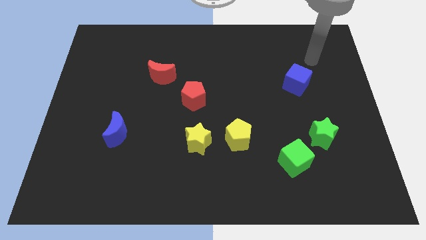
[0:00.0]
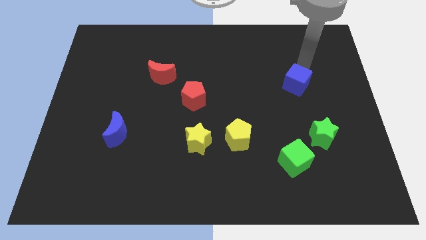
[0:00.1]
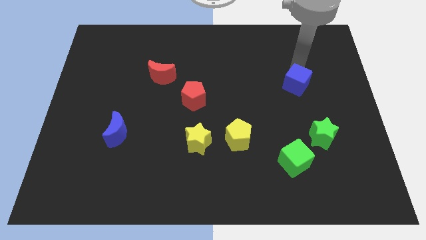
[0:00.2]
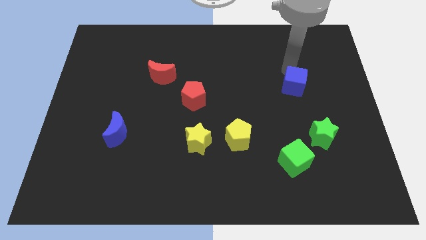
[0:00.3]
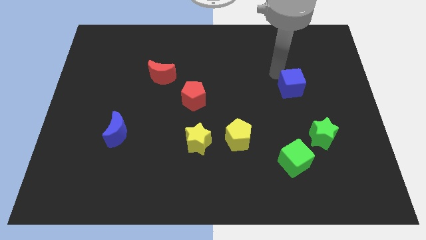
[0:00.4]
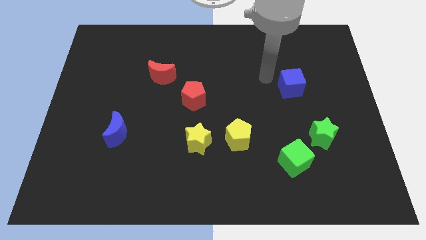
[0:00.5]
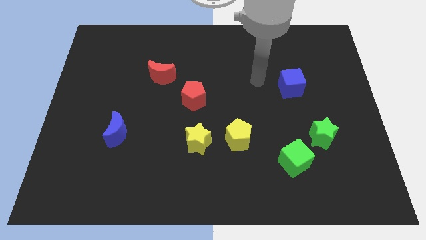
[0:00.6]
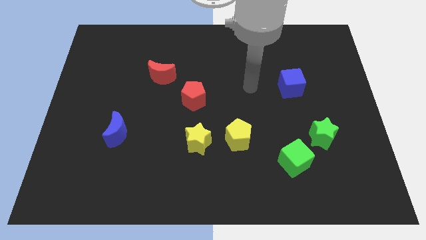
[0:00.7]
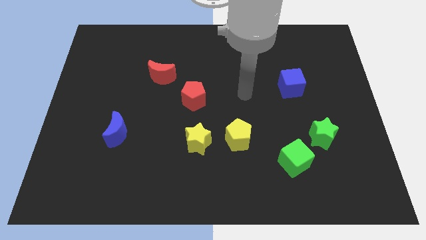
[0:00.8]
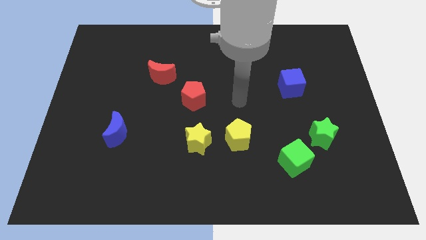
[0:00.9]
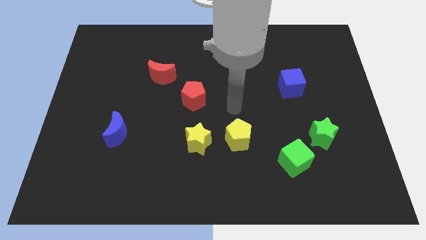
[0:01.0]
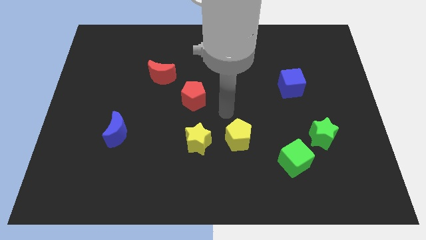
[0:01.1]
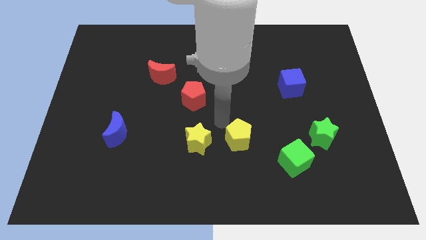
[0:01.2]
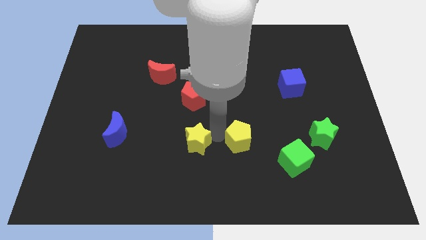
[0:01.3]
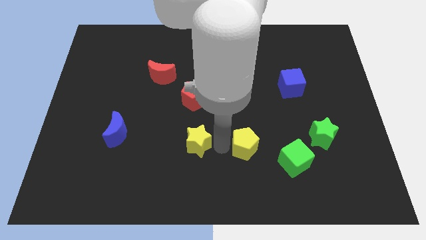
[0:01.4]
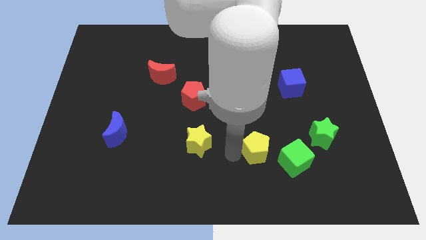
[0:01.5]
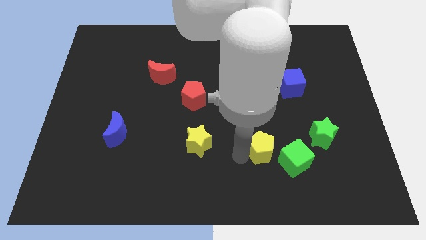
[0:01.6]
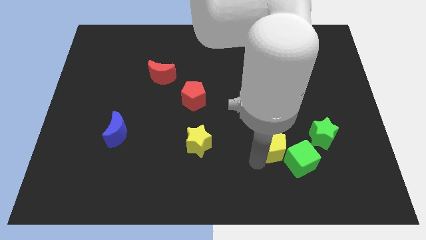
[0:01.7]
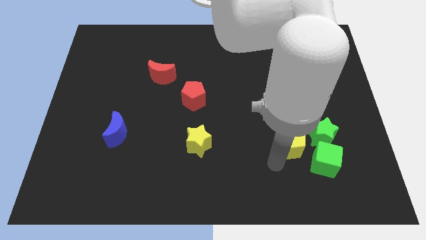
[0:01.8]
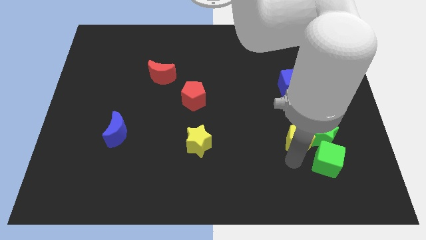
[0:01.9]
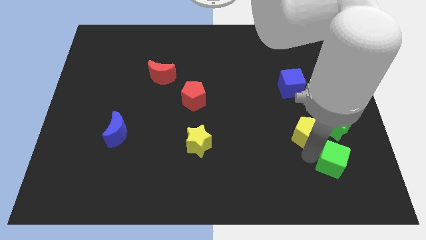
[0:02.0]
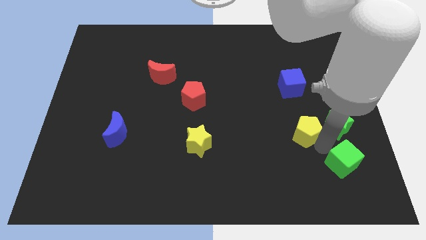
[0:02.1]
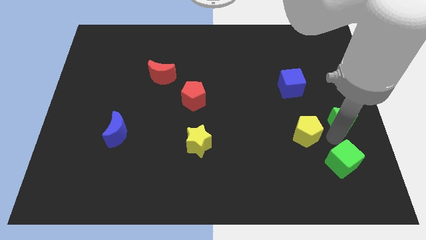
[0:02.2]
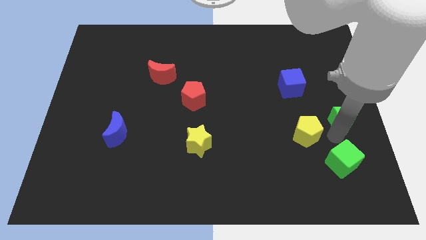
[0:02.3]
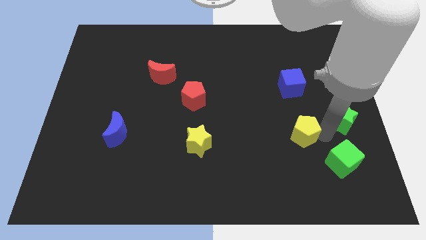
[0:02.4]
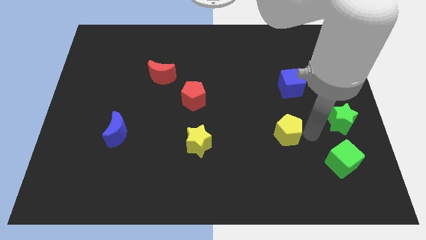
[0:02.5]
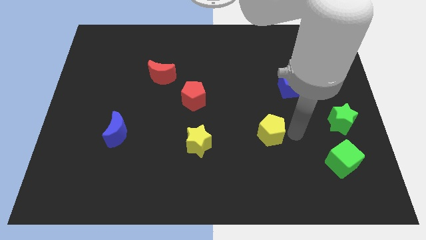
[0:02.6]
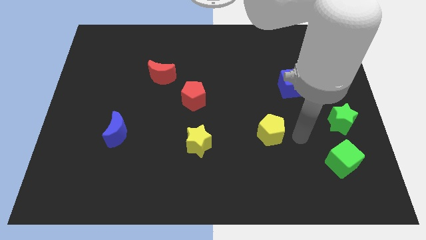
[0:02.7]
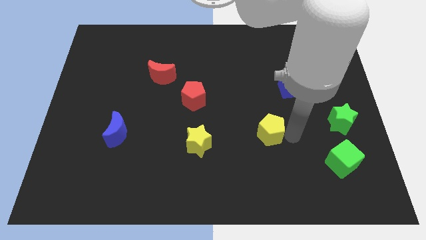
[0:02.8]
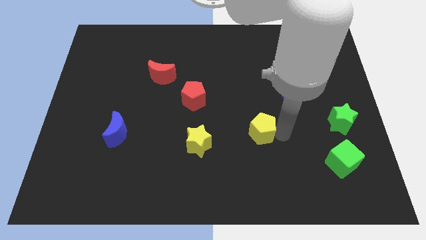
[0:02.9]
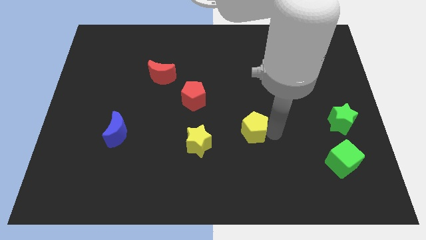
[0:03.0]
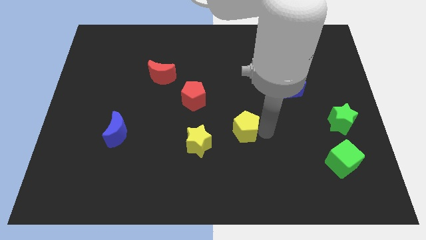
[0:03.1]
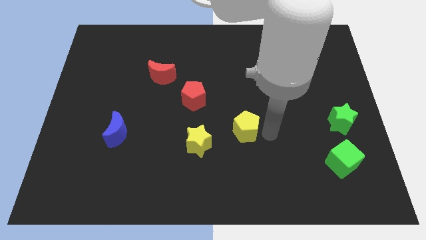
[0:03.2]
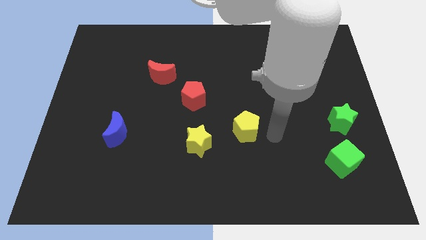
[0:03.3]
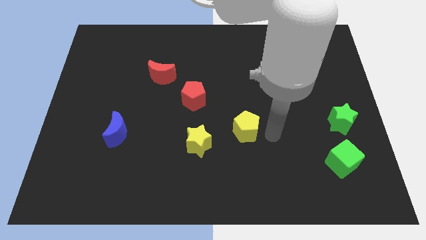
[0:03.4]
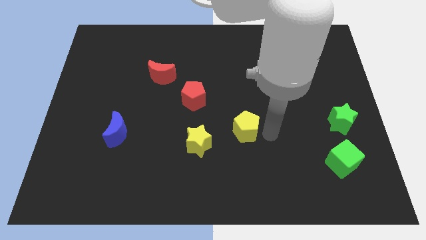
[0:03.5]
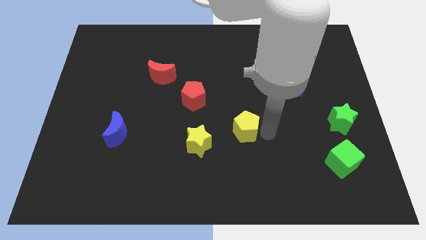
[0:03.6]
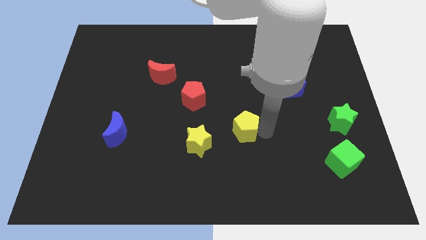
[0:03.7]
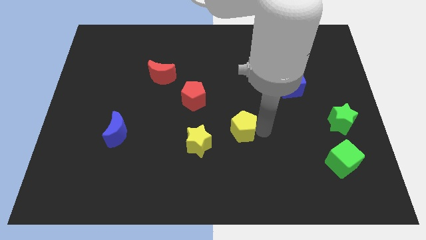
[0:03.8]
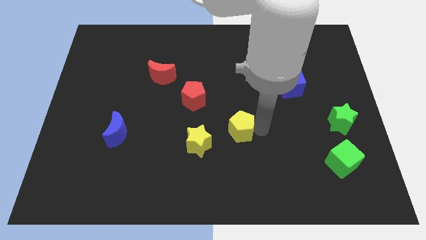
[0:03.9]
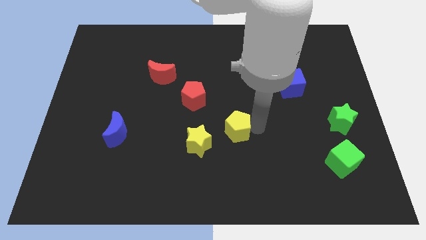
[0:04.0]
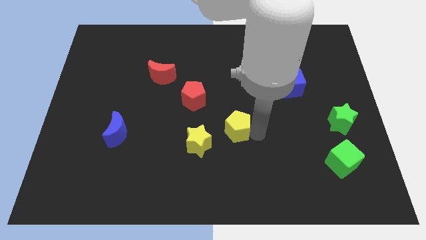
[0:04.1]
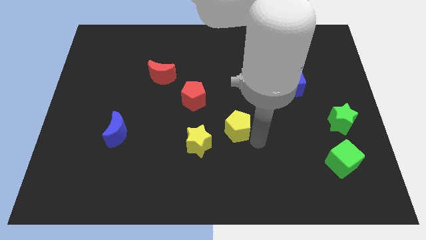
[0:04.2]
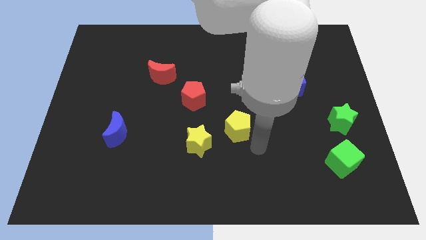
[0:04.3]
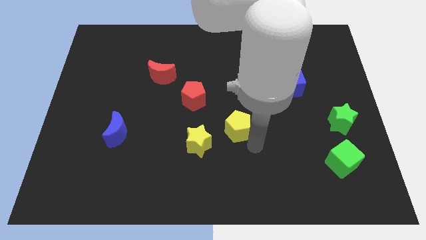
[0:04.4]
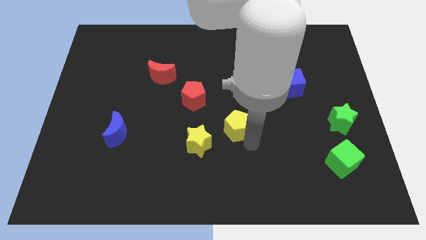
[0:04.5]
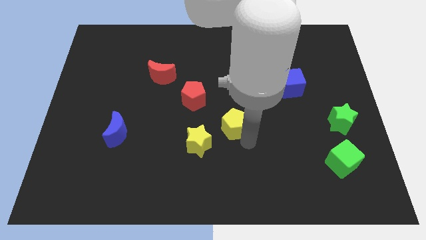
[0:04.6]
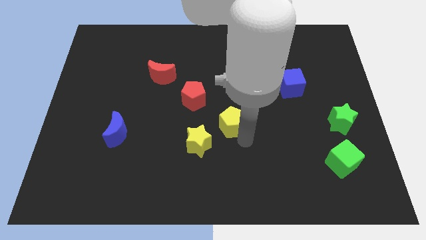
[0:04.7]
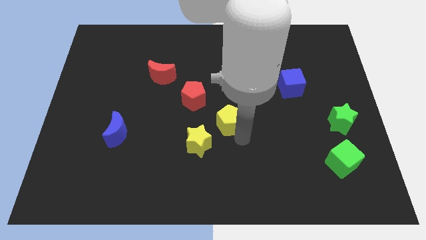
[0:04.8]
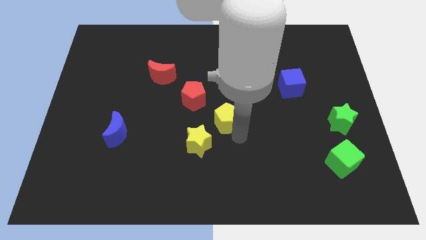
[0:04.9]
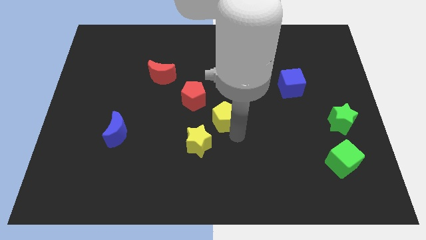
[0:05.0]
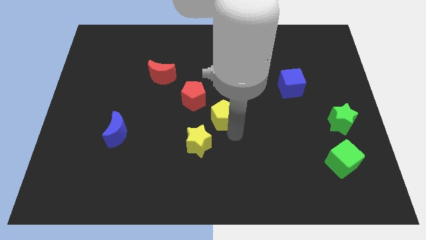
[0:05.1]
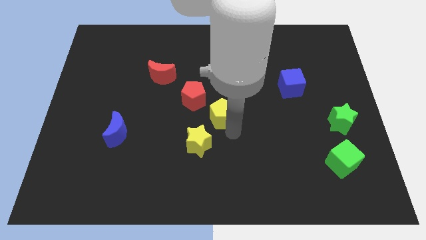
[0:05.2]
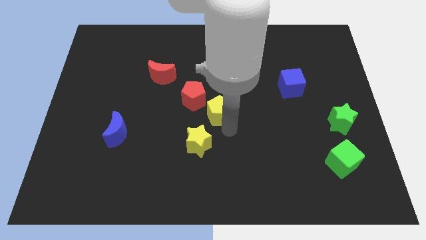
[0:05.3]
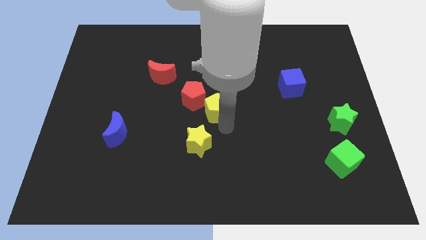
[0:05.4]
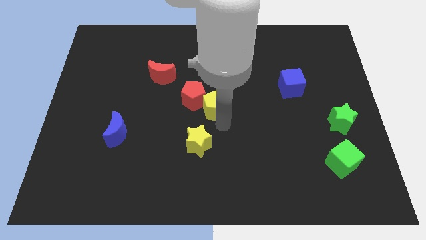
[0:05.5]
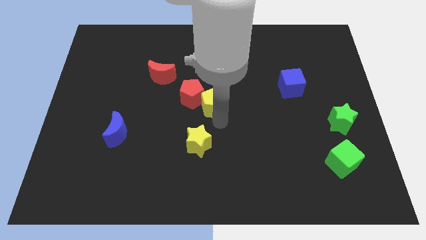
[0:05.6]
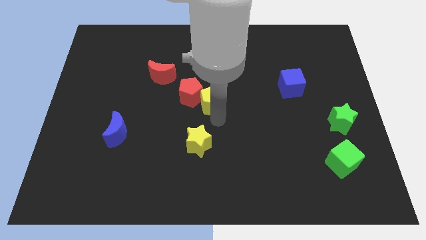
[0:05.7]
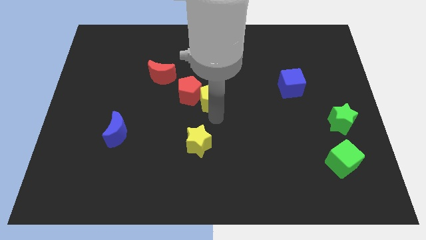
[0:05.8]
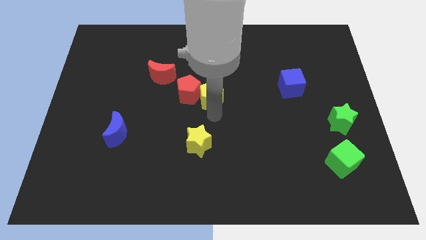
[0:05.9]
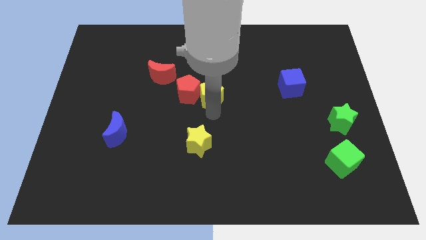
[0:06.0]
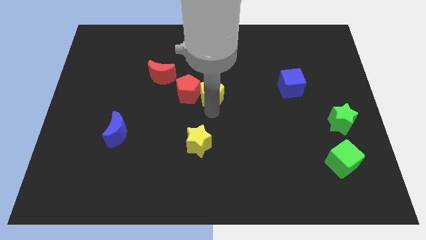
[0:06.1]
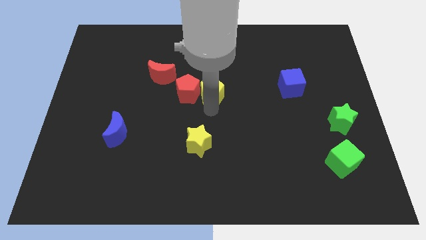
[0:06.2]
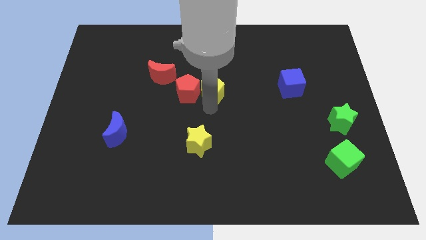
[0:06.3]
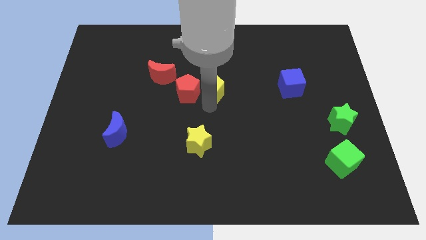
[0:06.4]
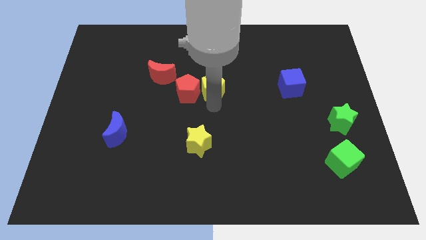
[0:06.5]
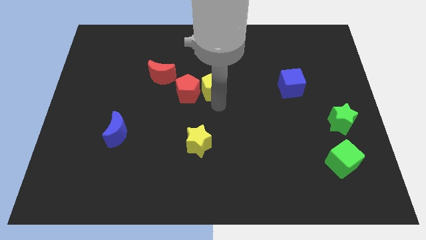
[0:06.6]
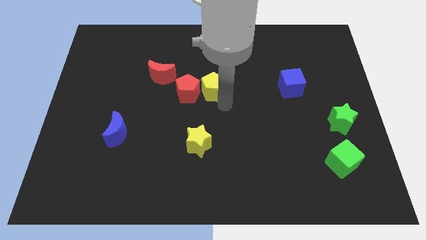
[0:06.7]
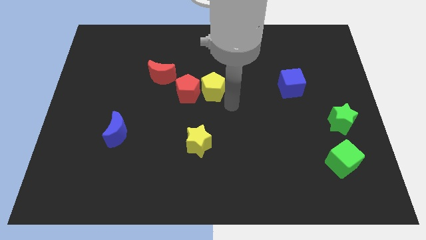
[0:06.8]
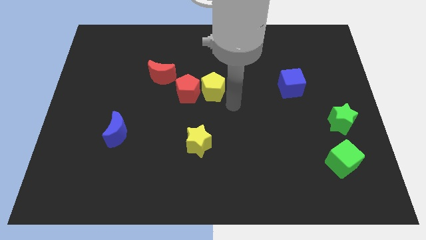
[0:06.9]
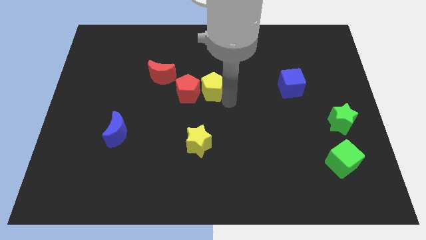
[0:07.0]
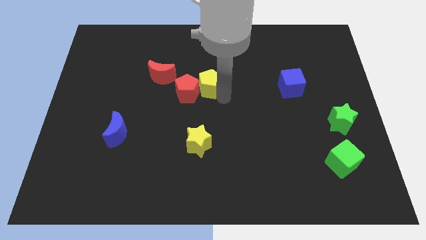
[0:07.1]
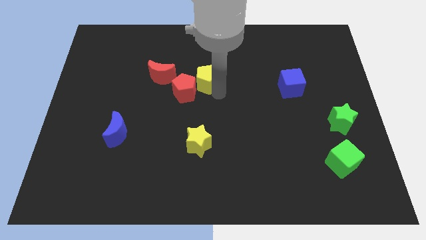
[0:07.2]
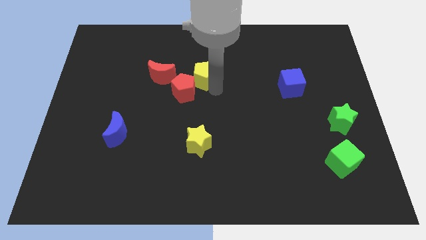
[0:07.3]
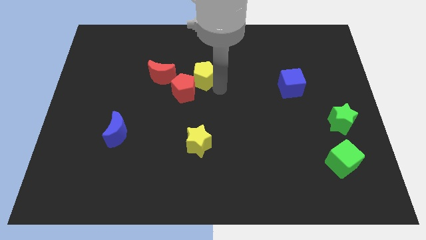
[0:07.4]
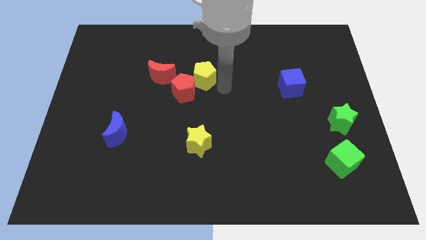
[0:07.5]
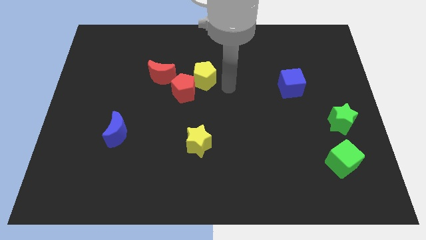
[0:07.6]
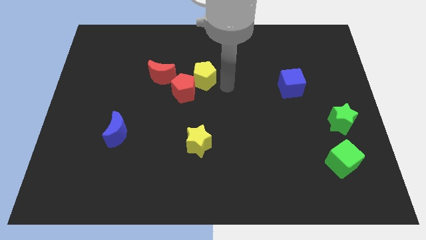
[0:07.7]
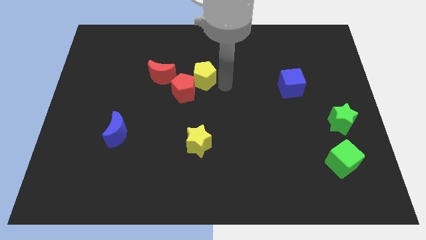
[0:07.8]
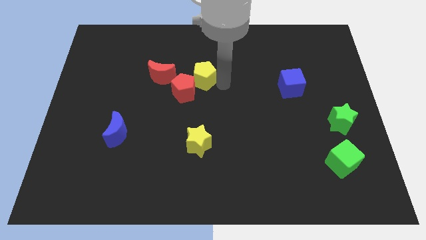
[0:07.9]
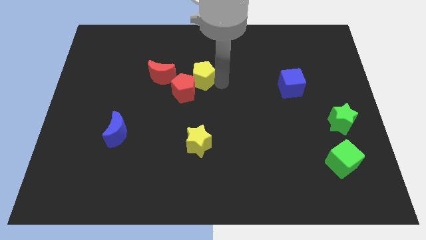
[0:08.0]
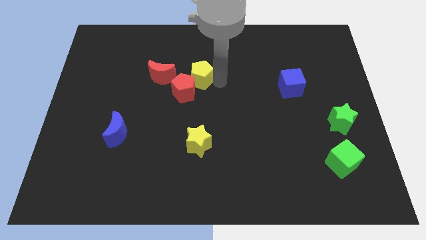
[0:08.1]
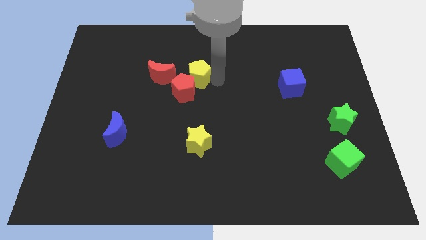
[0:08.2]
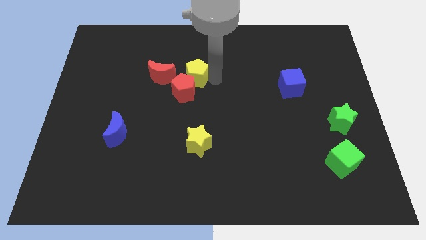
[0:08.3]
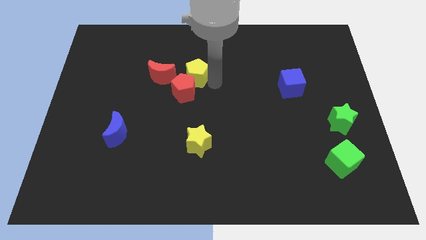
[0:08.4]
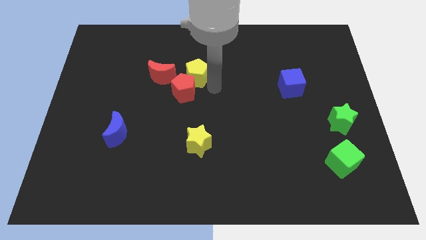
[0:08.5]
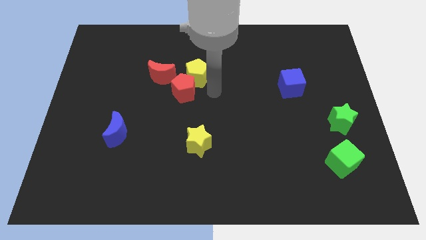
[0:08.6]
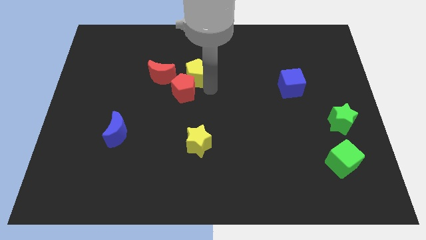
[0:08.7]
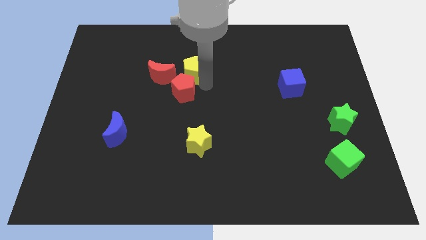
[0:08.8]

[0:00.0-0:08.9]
slide the yellow pentagon to the top right of the red moon
